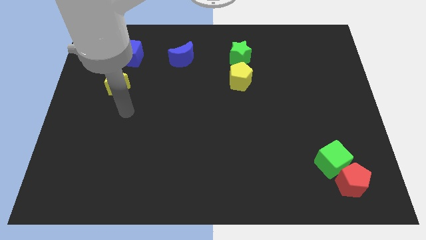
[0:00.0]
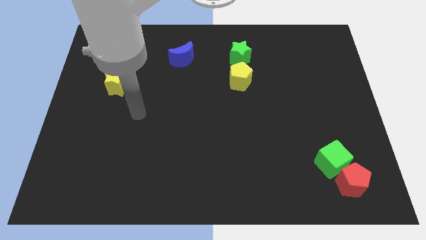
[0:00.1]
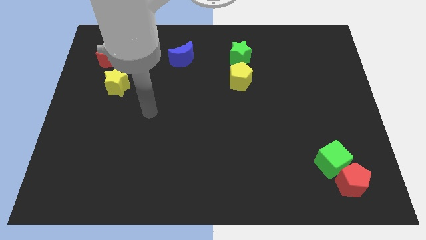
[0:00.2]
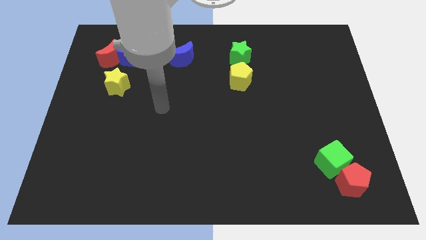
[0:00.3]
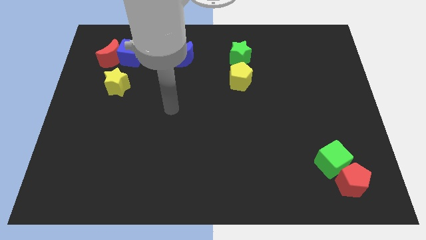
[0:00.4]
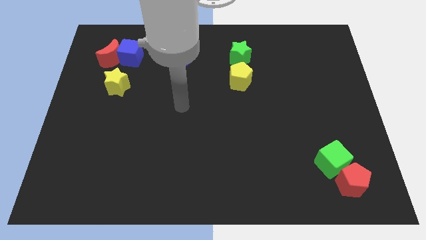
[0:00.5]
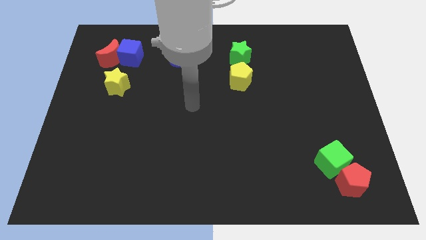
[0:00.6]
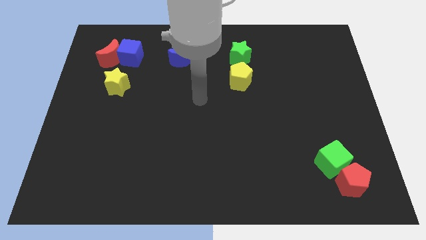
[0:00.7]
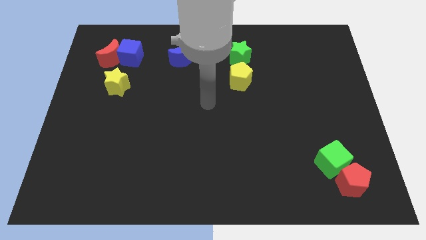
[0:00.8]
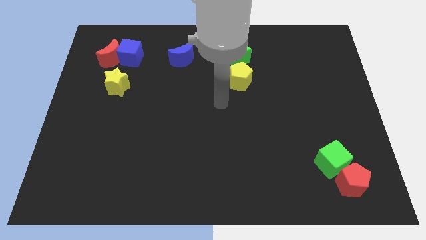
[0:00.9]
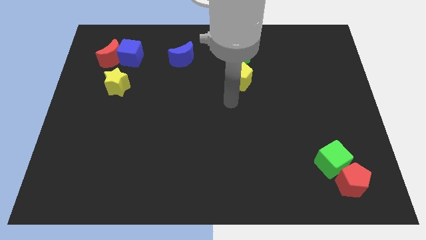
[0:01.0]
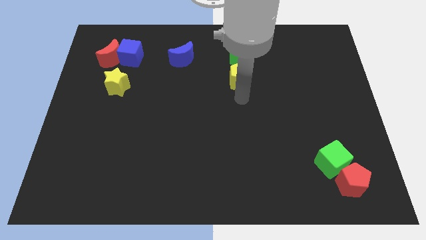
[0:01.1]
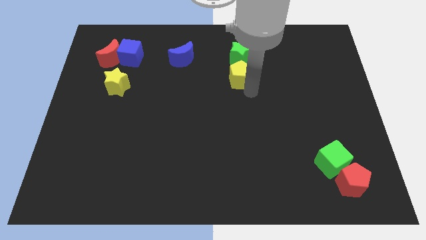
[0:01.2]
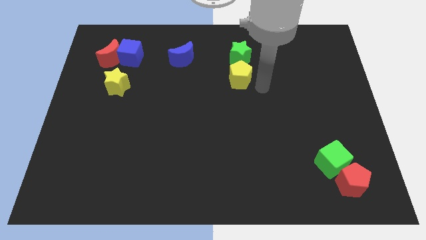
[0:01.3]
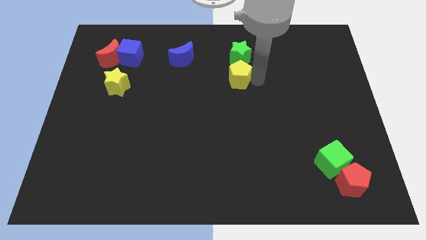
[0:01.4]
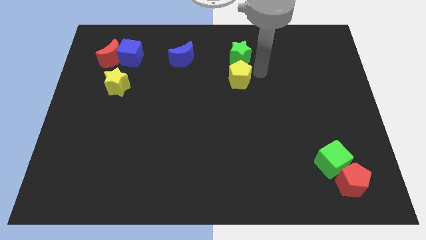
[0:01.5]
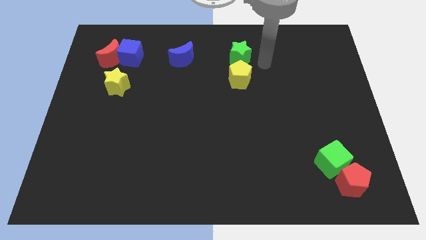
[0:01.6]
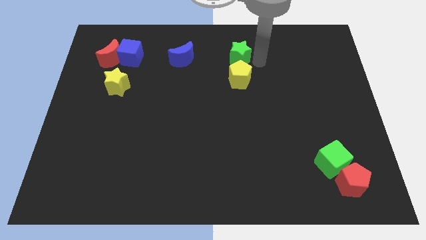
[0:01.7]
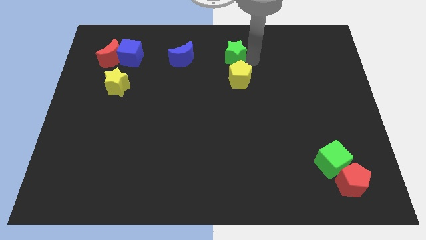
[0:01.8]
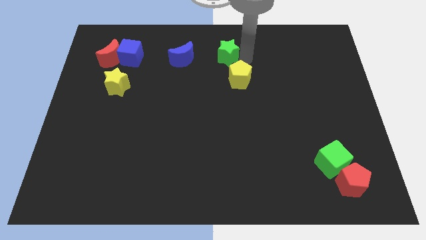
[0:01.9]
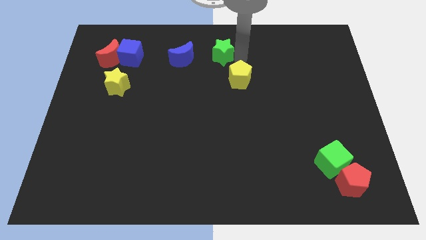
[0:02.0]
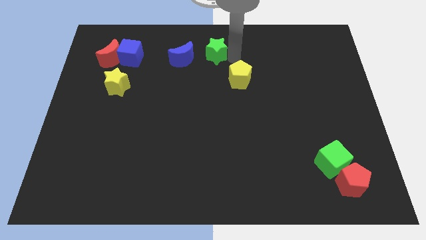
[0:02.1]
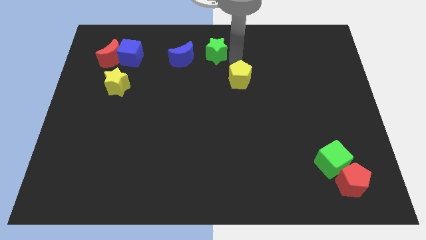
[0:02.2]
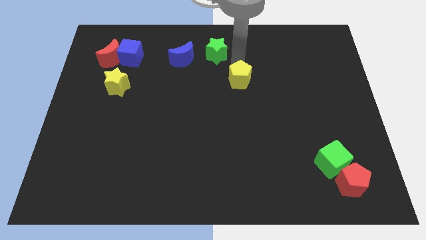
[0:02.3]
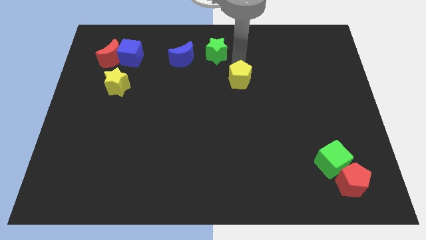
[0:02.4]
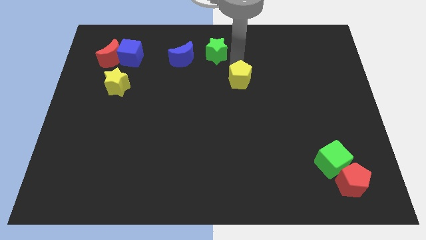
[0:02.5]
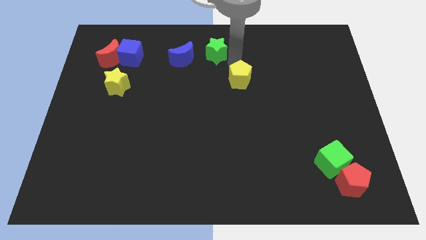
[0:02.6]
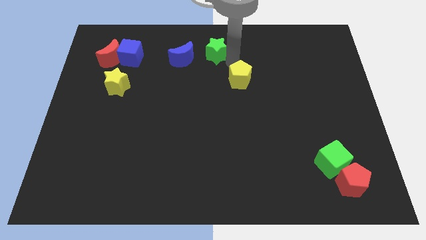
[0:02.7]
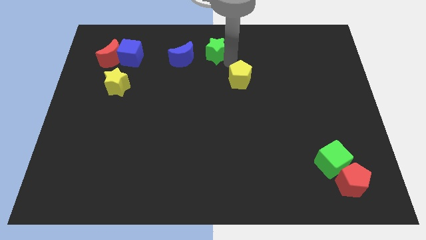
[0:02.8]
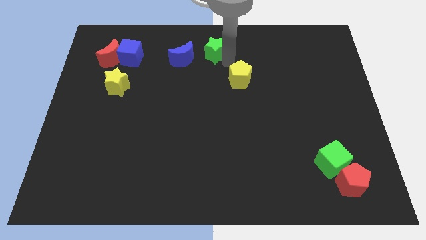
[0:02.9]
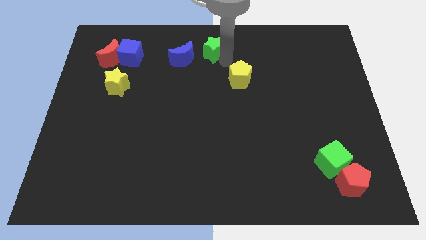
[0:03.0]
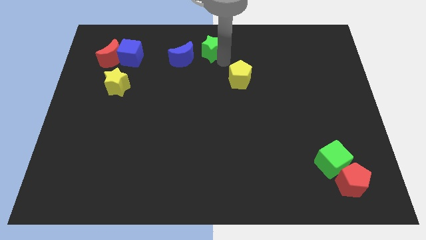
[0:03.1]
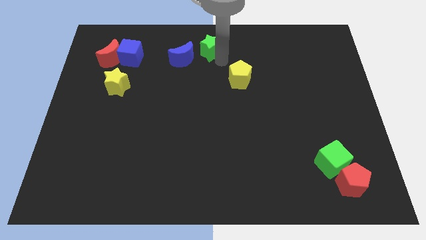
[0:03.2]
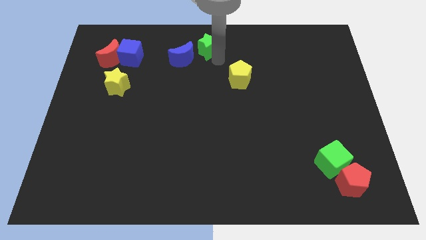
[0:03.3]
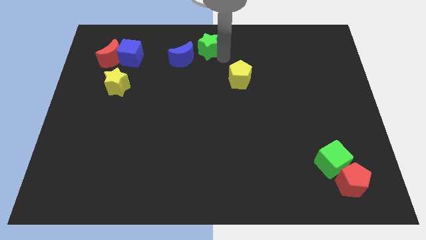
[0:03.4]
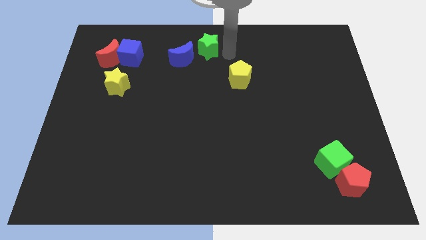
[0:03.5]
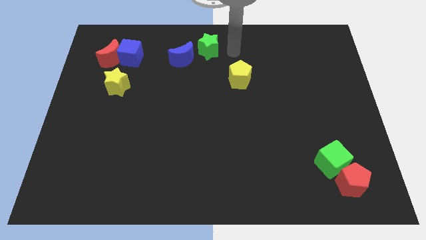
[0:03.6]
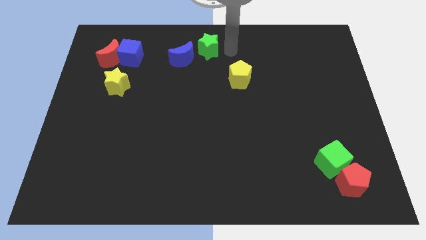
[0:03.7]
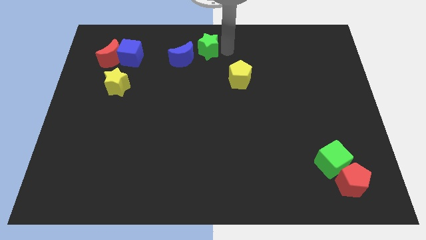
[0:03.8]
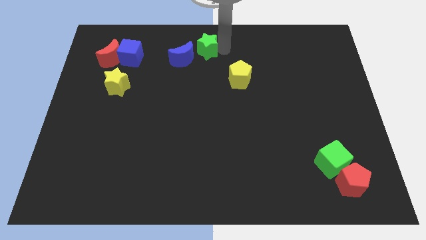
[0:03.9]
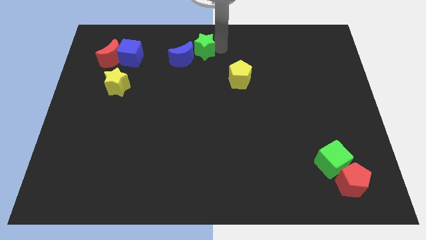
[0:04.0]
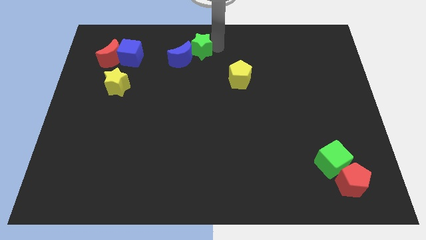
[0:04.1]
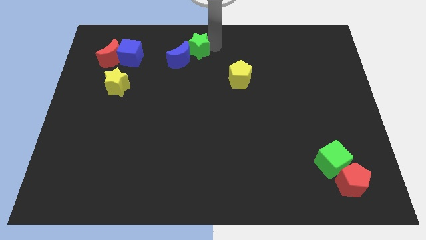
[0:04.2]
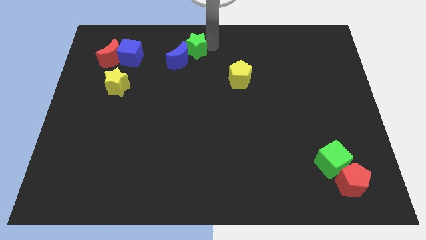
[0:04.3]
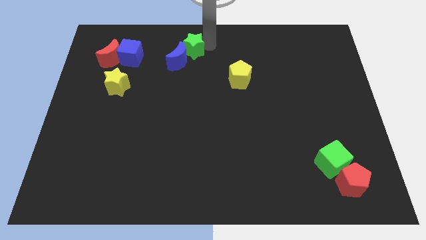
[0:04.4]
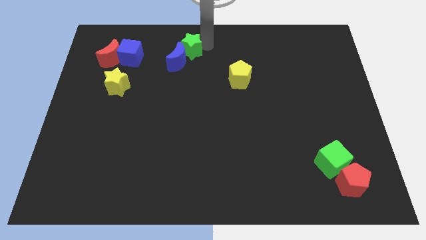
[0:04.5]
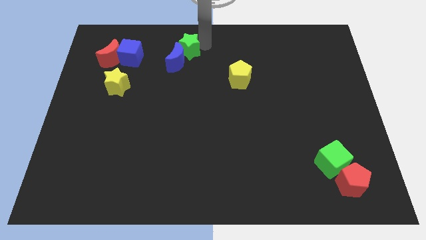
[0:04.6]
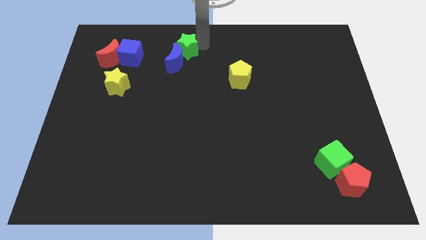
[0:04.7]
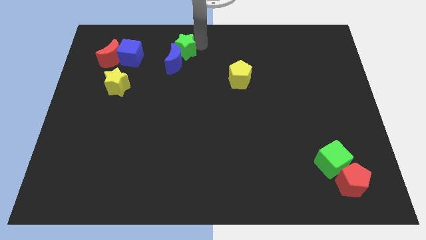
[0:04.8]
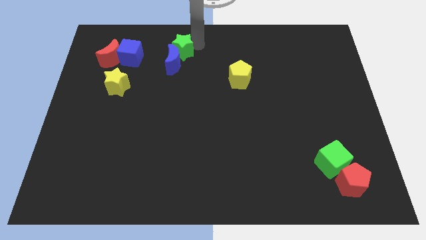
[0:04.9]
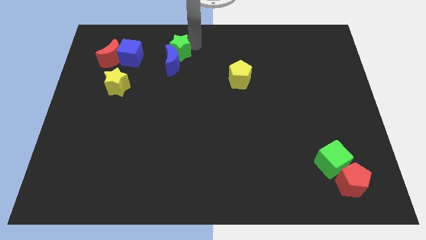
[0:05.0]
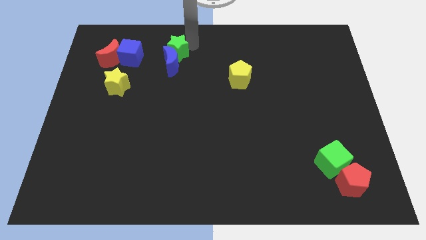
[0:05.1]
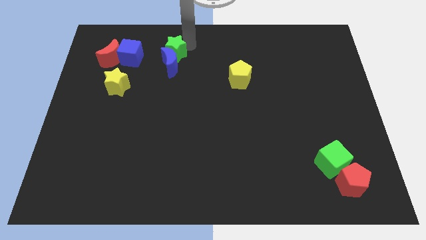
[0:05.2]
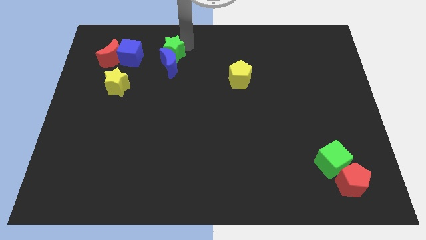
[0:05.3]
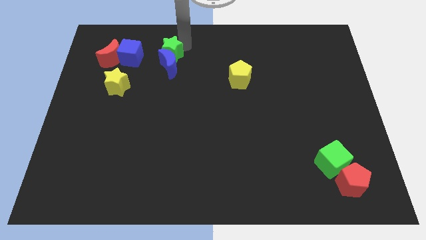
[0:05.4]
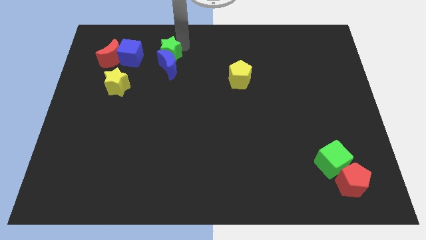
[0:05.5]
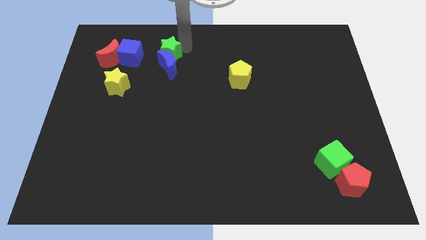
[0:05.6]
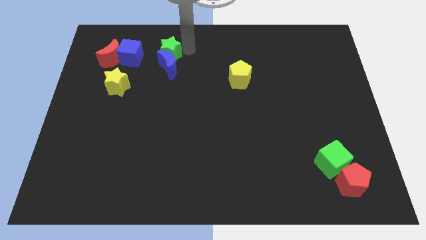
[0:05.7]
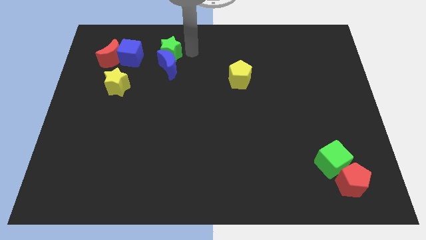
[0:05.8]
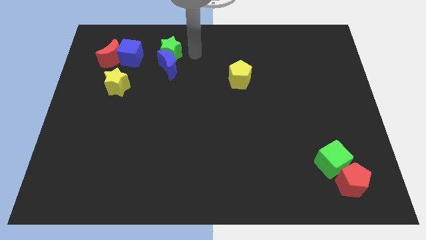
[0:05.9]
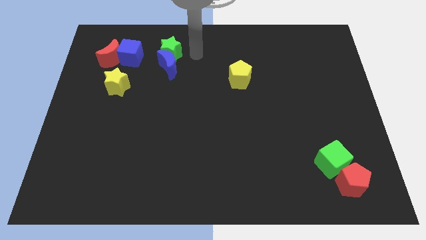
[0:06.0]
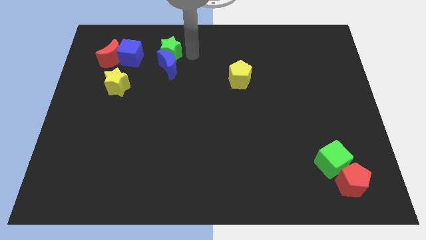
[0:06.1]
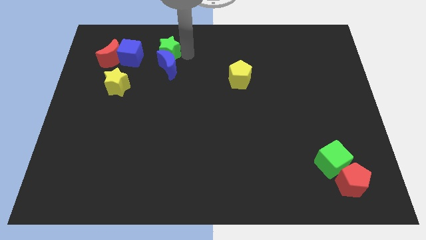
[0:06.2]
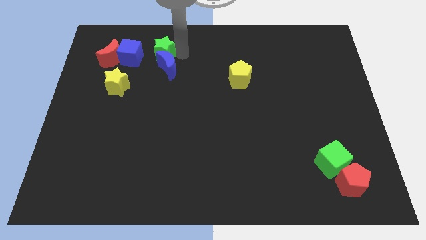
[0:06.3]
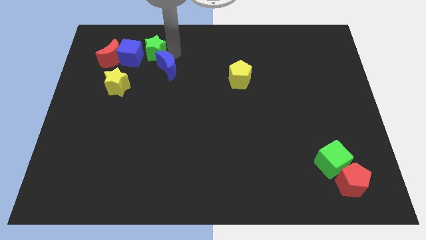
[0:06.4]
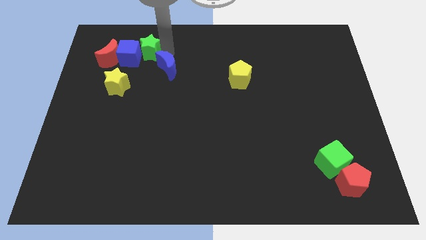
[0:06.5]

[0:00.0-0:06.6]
slide the green star next to the blue cube
